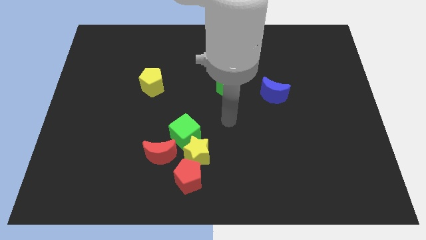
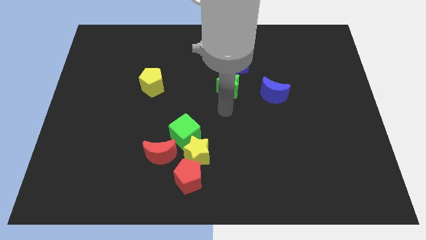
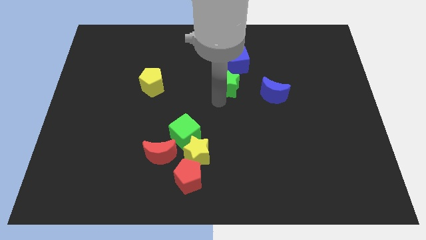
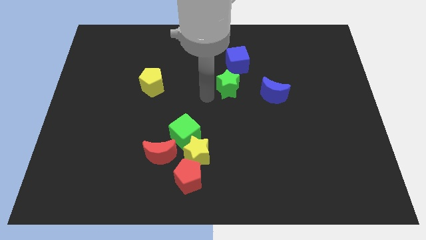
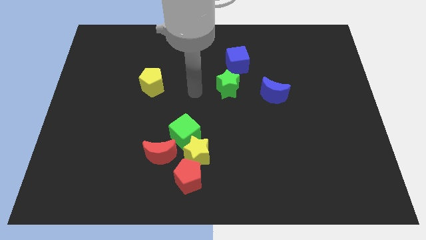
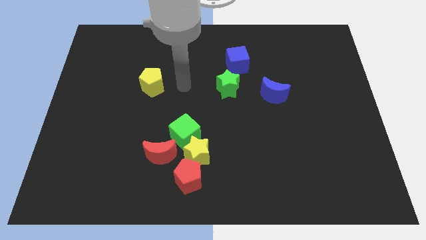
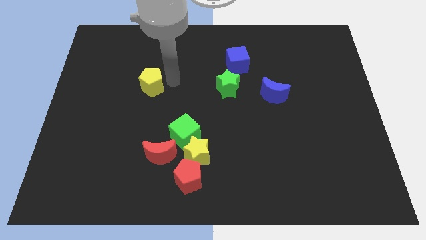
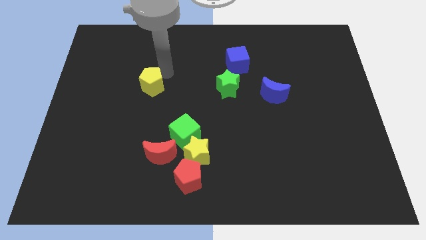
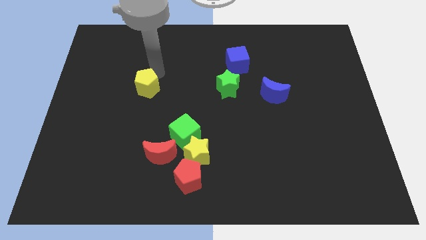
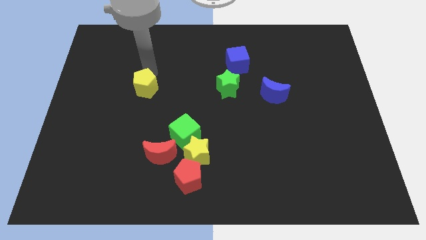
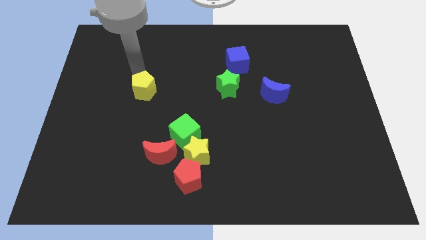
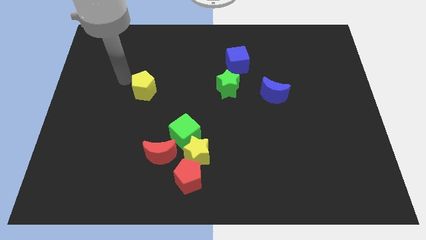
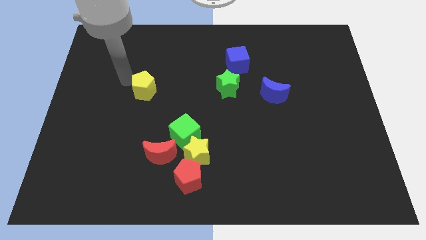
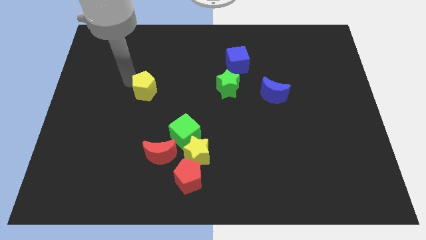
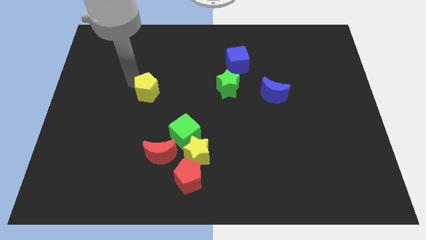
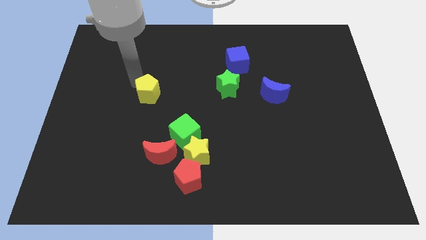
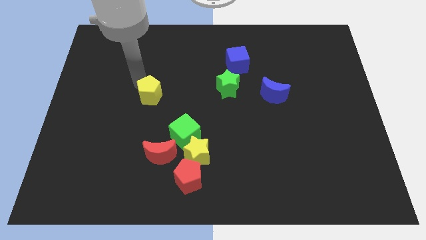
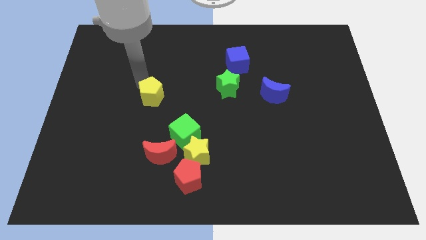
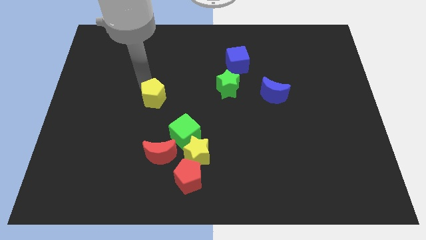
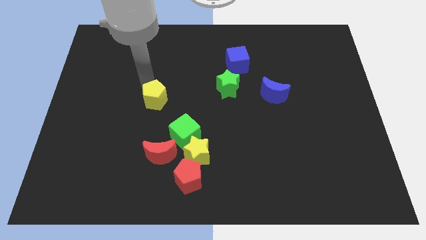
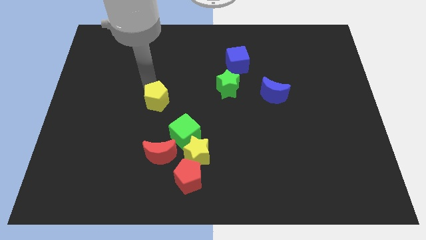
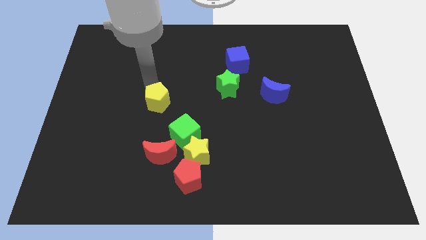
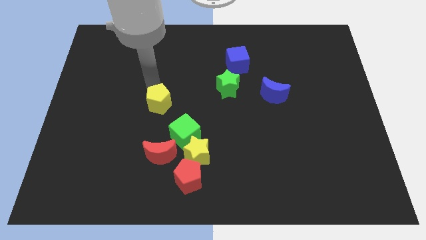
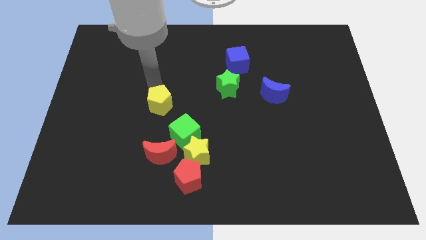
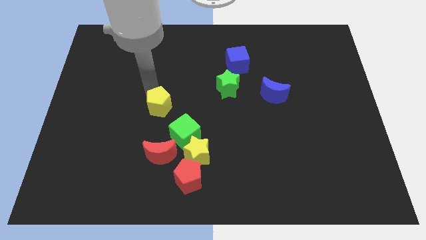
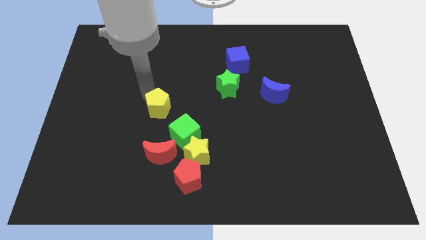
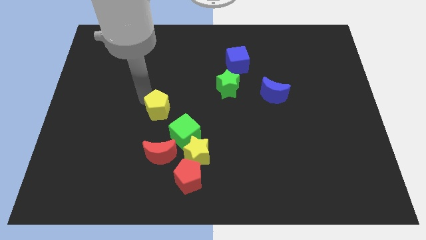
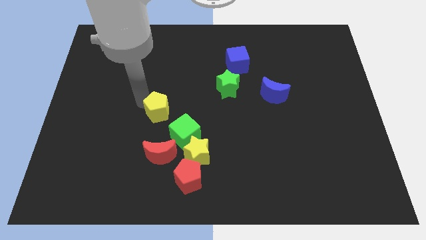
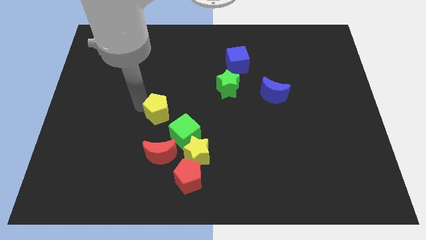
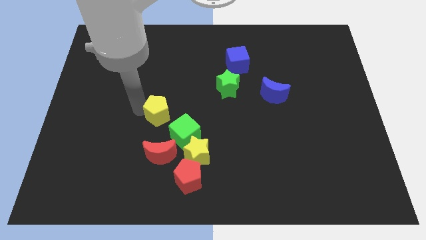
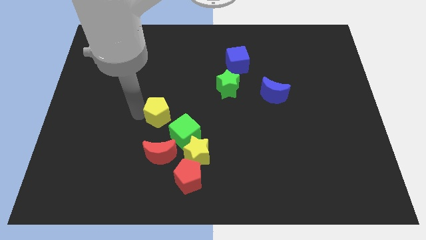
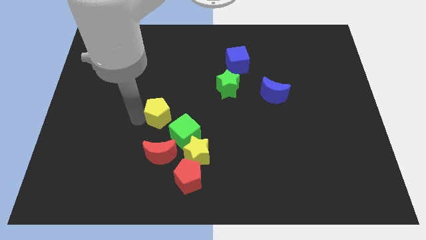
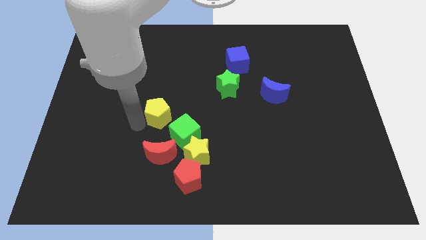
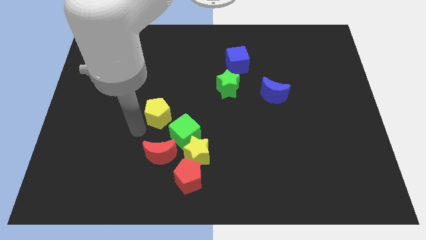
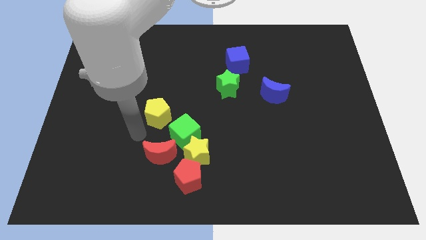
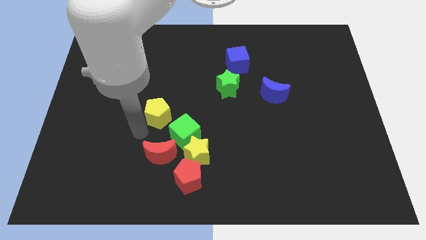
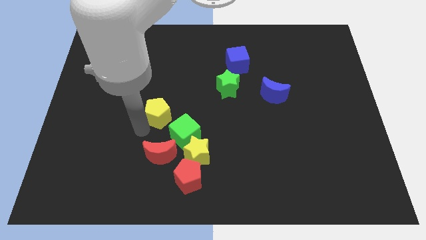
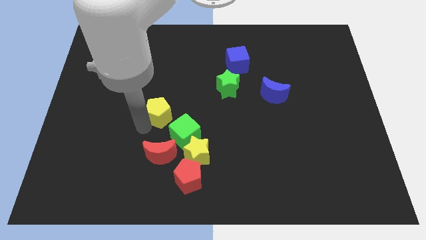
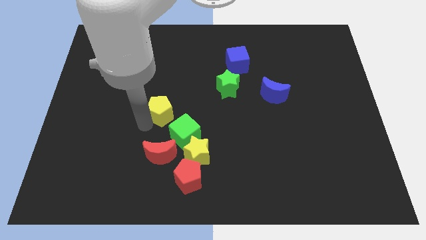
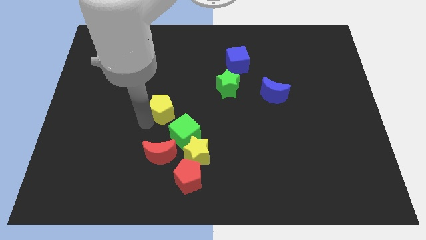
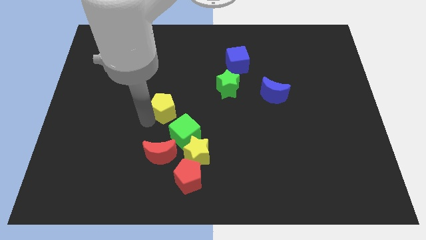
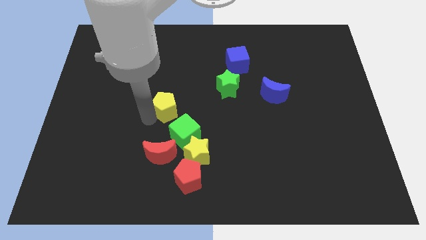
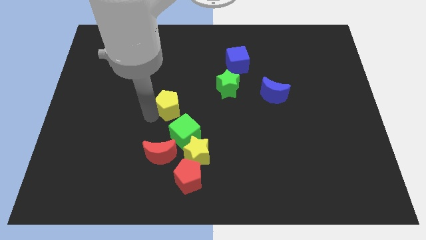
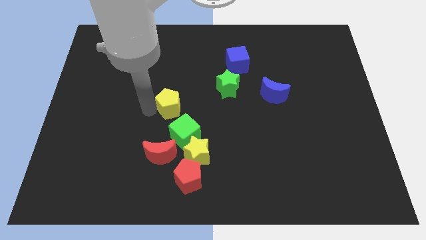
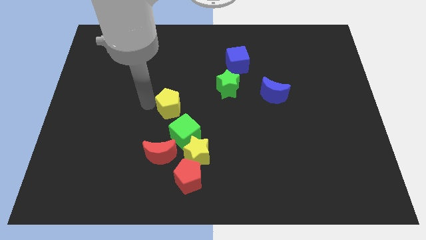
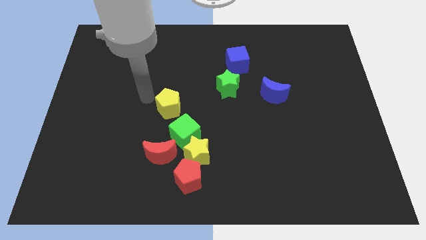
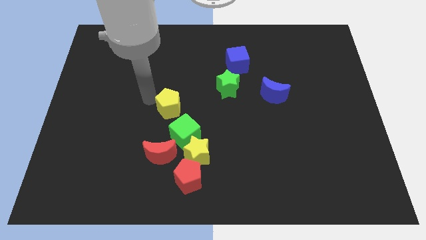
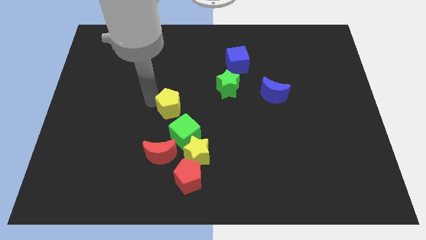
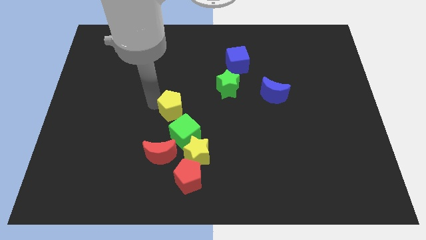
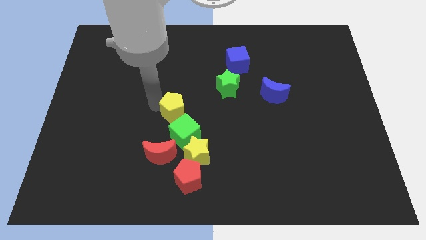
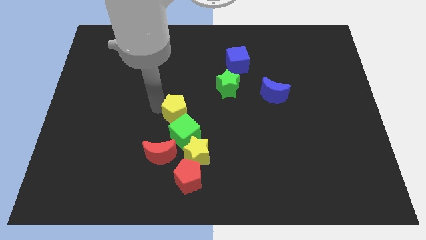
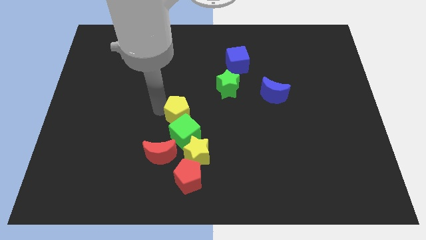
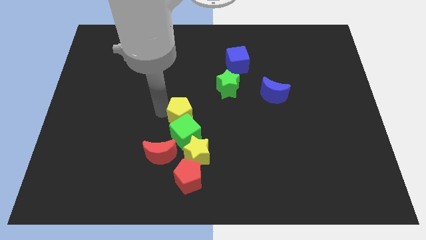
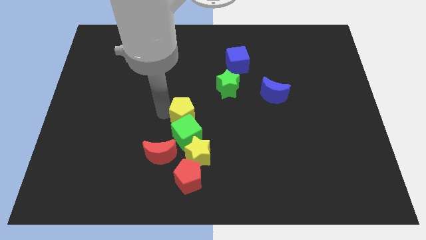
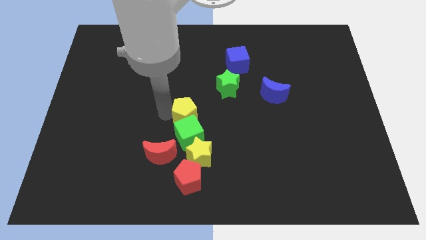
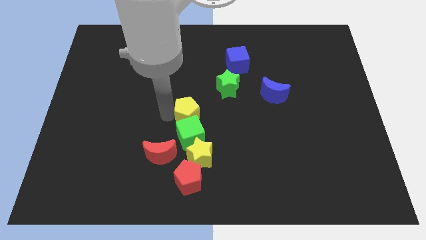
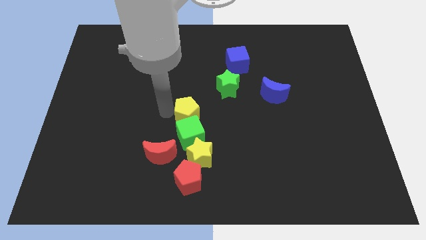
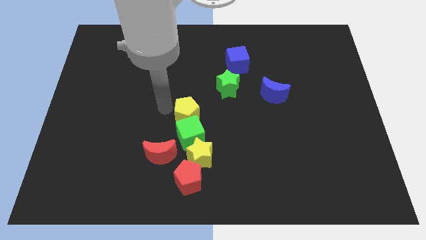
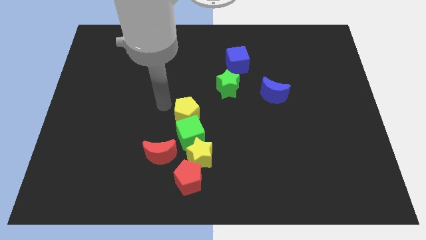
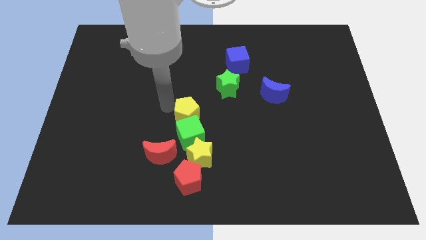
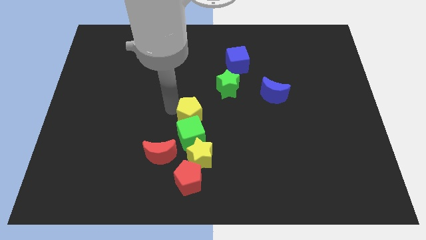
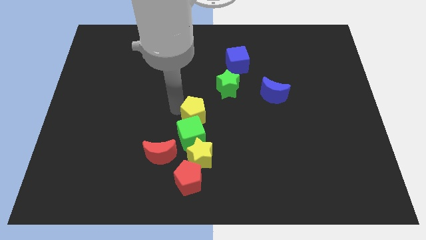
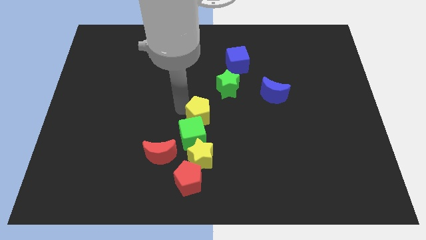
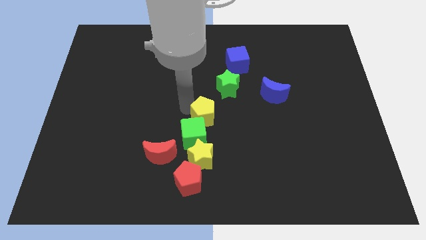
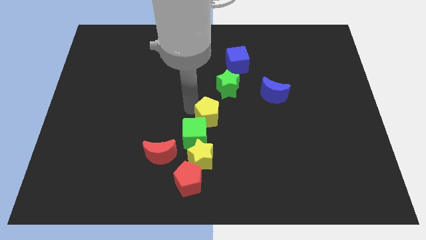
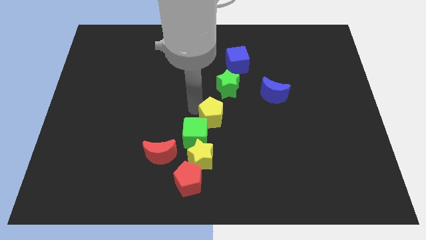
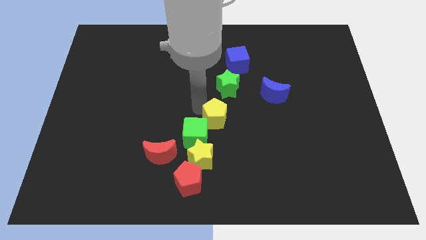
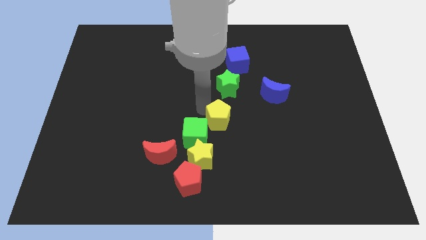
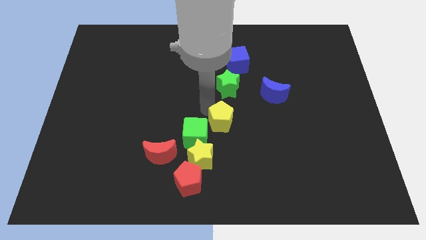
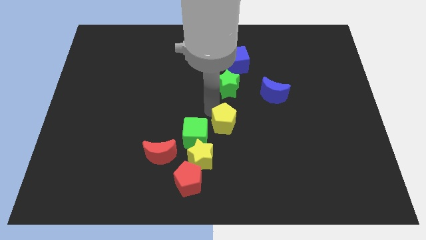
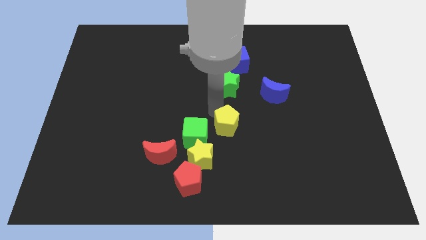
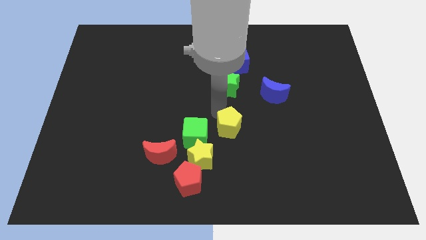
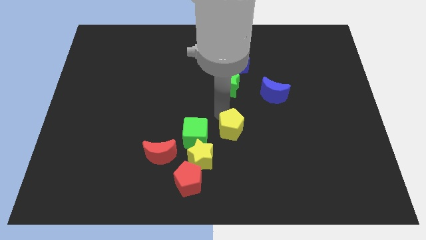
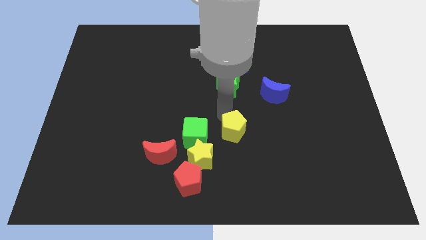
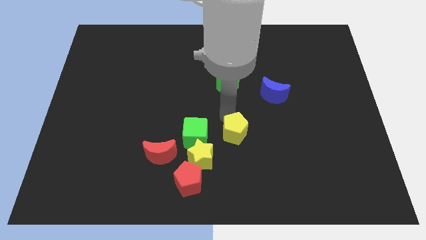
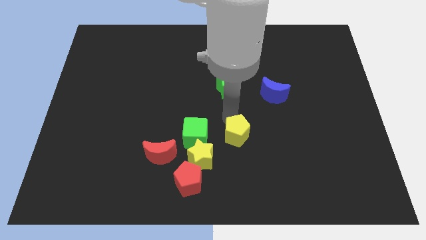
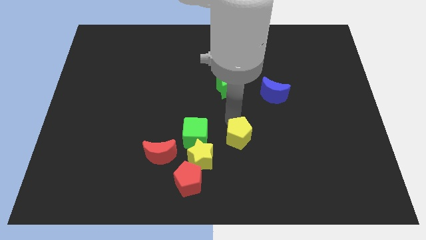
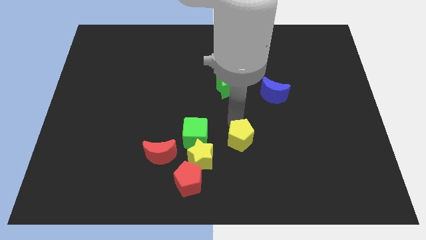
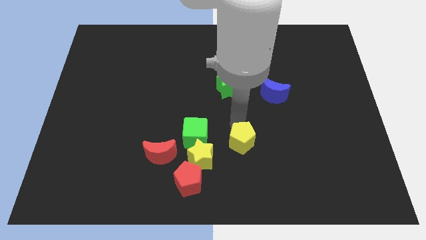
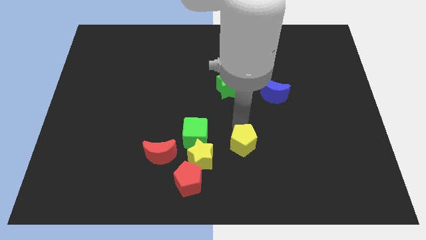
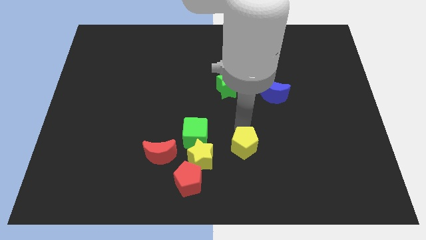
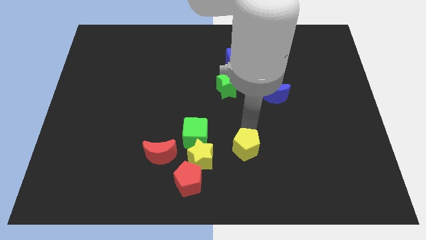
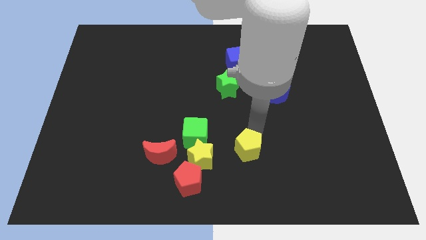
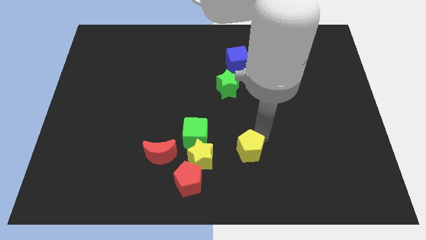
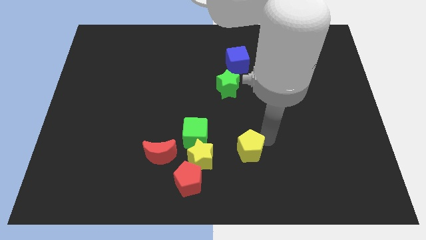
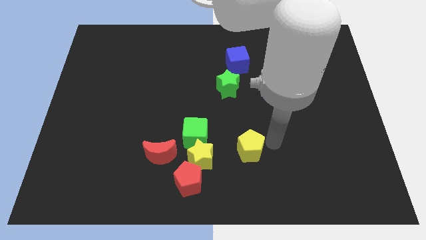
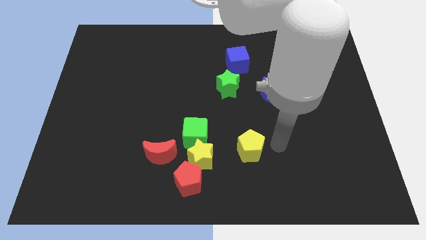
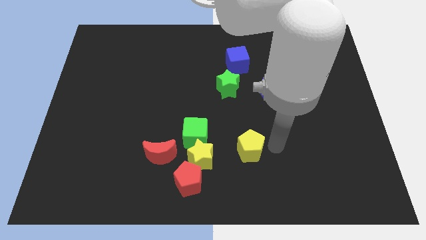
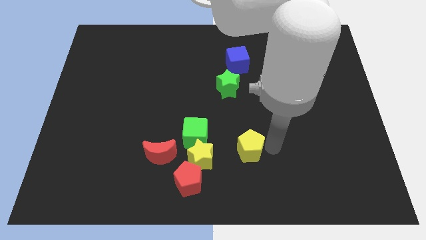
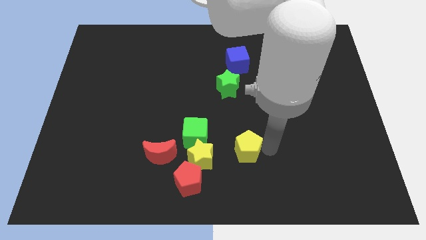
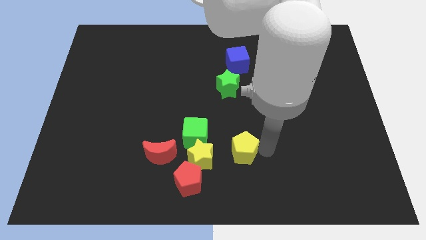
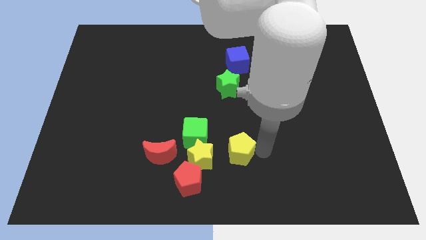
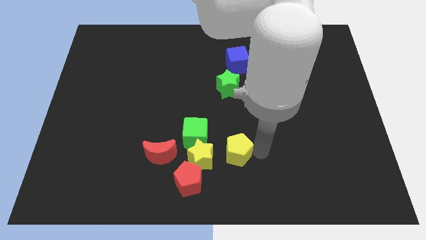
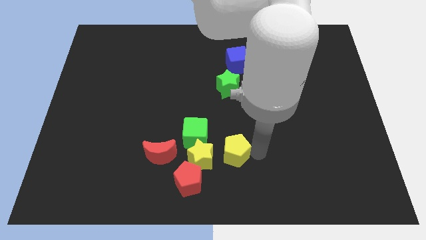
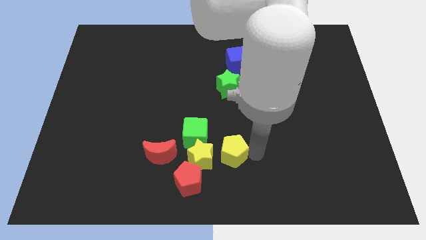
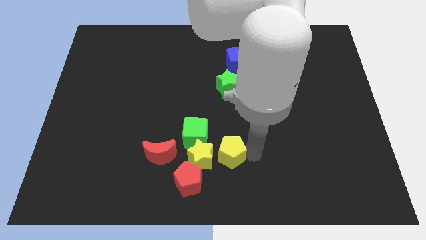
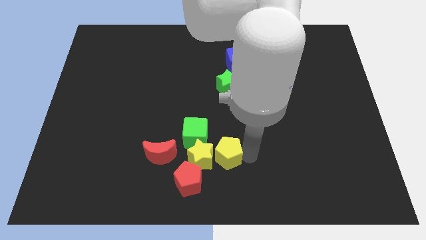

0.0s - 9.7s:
slide the yellow pentagon to the bottom side
